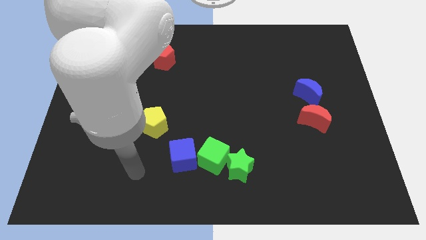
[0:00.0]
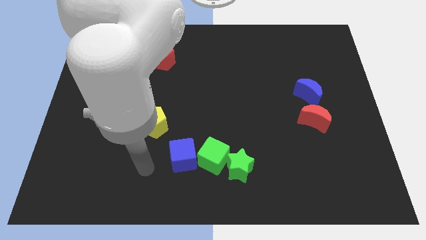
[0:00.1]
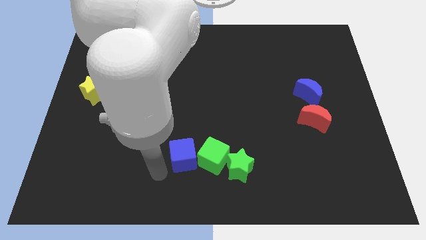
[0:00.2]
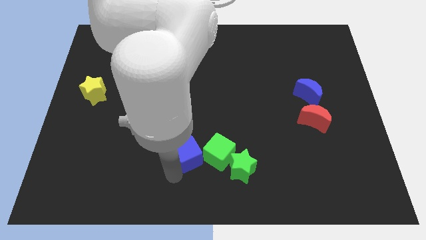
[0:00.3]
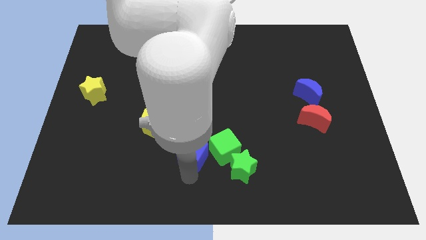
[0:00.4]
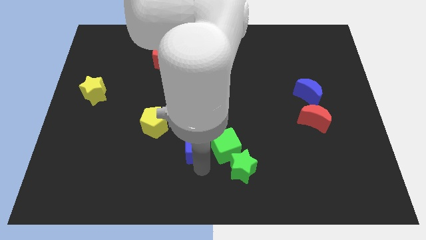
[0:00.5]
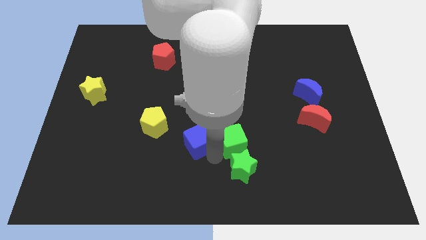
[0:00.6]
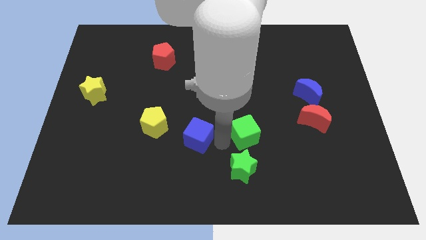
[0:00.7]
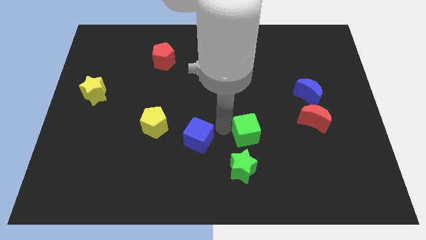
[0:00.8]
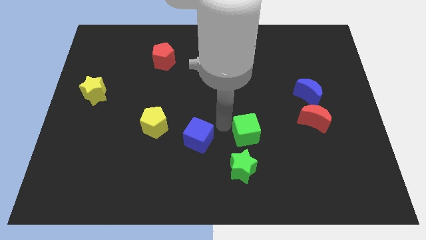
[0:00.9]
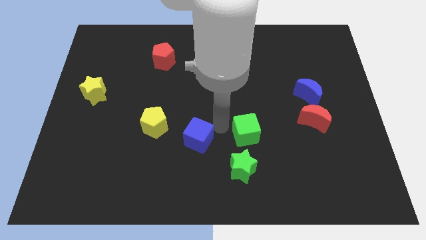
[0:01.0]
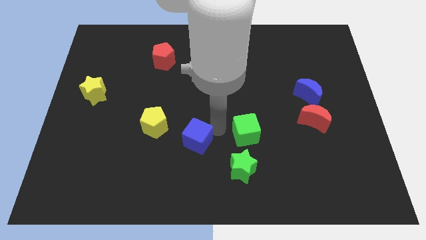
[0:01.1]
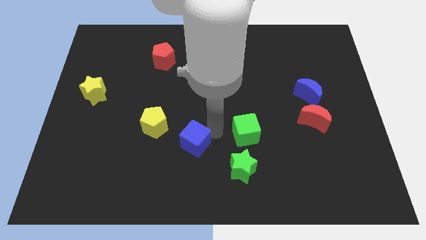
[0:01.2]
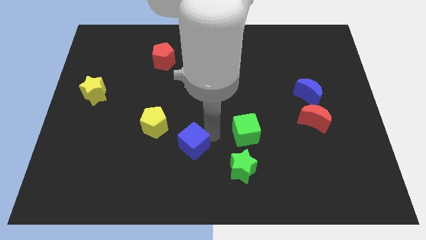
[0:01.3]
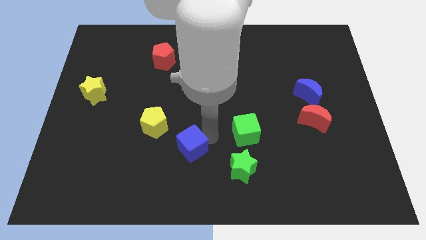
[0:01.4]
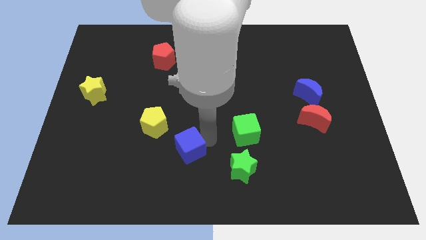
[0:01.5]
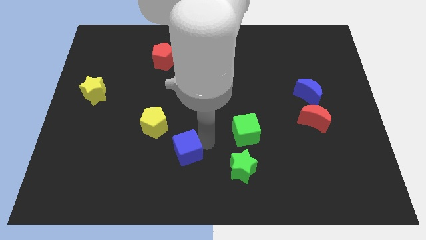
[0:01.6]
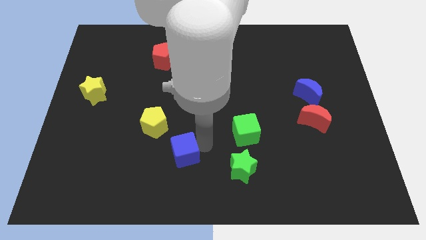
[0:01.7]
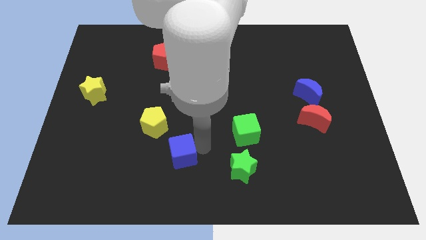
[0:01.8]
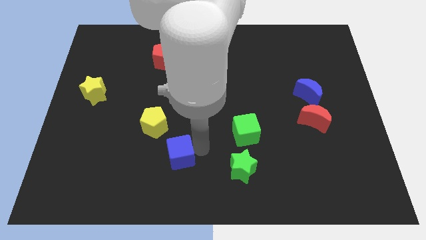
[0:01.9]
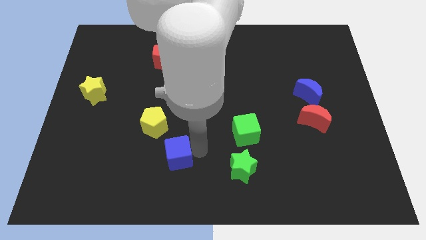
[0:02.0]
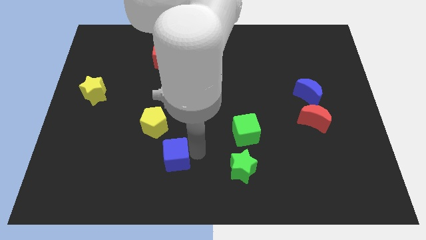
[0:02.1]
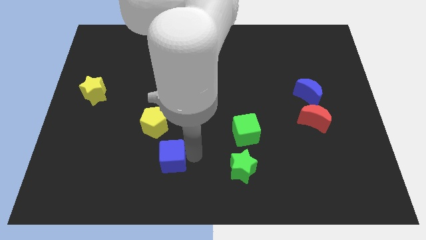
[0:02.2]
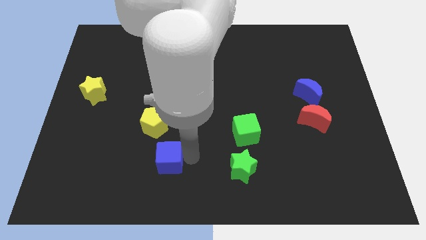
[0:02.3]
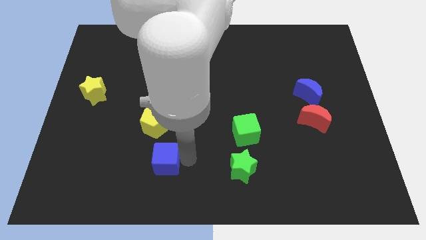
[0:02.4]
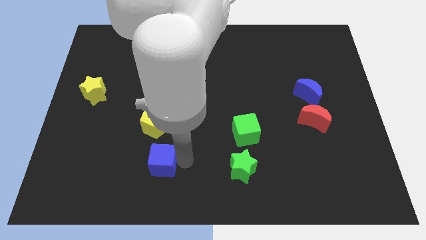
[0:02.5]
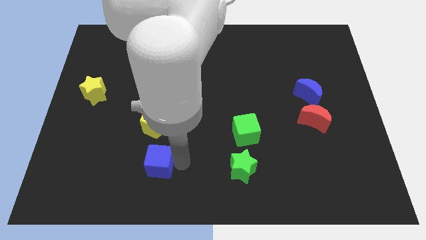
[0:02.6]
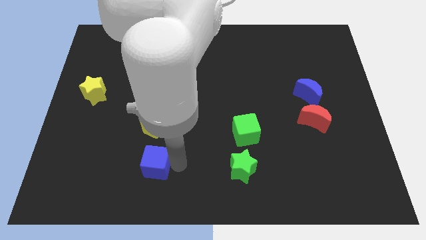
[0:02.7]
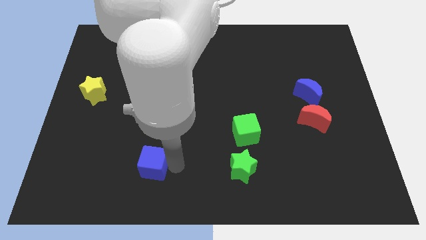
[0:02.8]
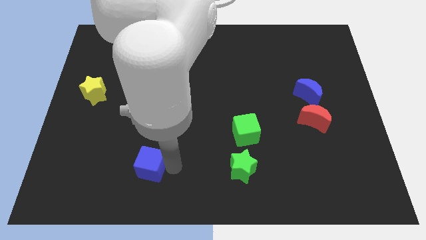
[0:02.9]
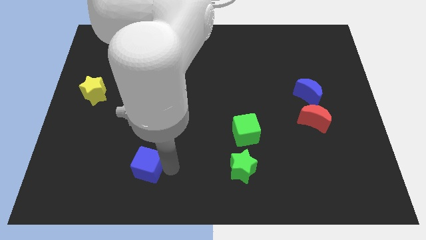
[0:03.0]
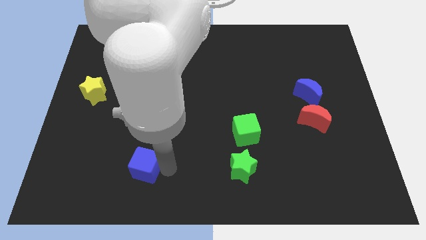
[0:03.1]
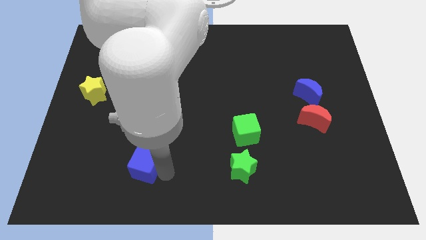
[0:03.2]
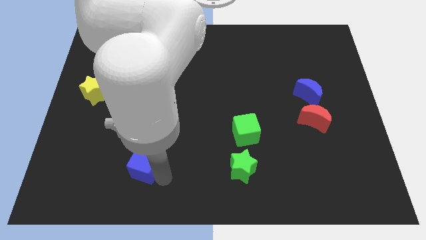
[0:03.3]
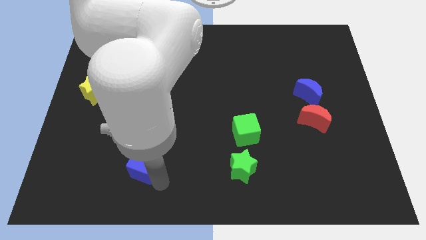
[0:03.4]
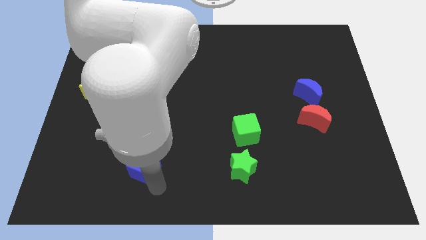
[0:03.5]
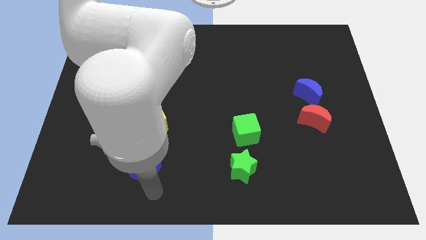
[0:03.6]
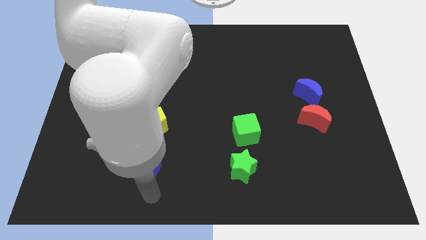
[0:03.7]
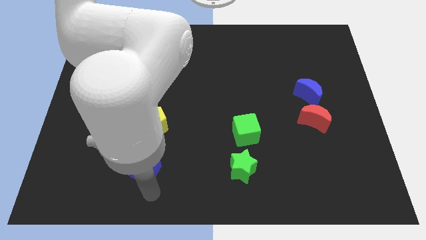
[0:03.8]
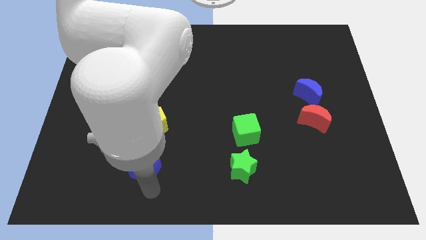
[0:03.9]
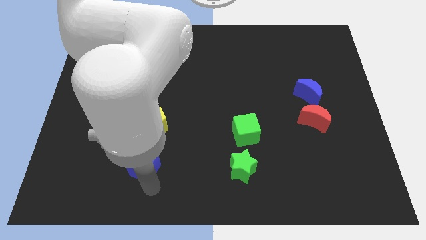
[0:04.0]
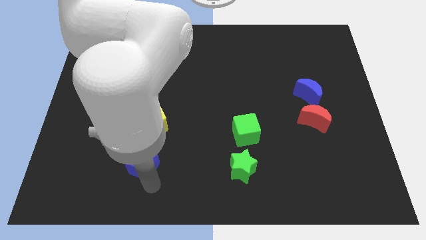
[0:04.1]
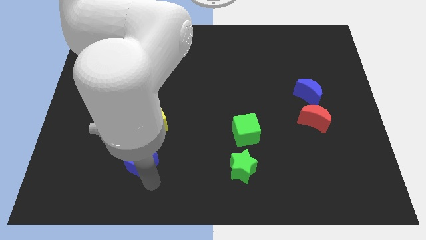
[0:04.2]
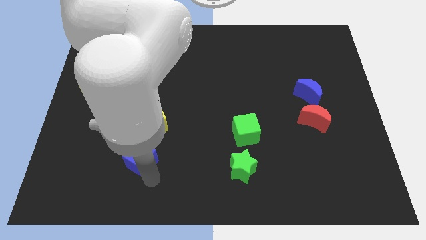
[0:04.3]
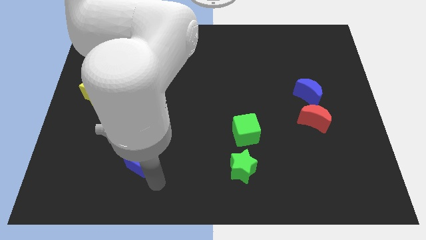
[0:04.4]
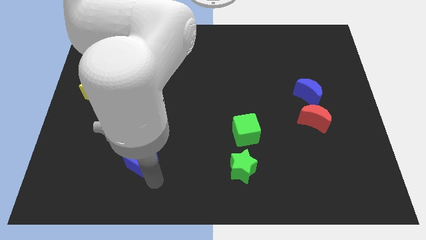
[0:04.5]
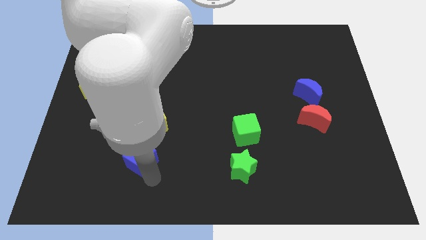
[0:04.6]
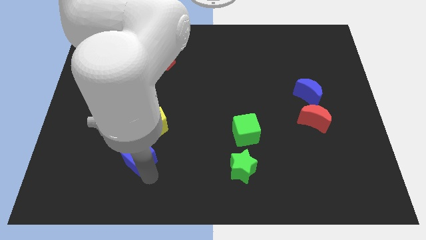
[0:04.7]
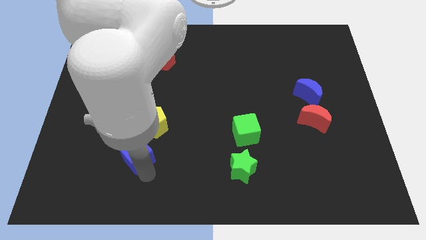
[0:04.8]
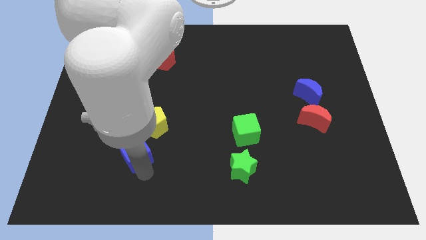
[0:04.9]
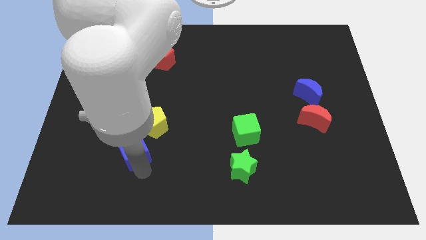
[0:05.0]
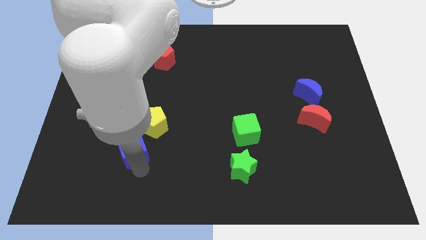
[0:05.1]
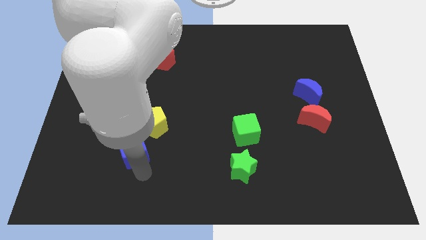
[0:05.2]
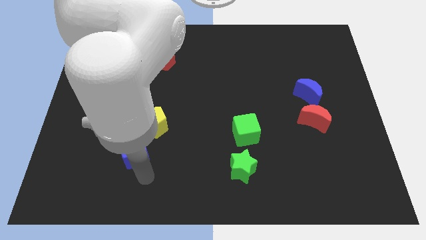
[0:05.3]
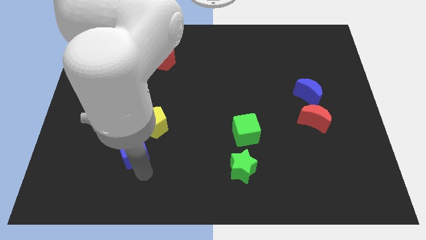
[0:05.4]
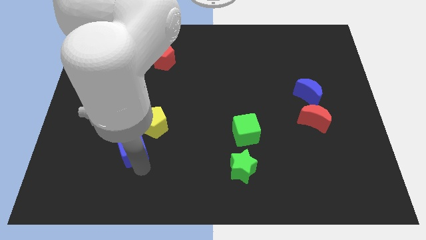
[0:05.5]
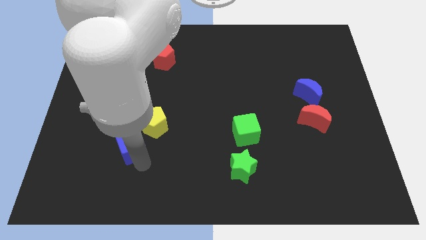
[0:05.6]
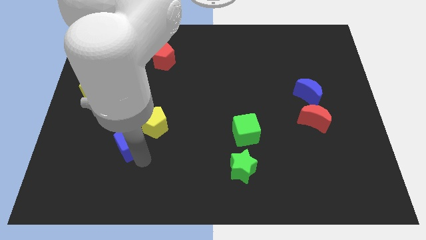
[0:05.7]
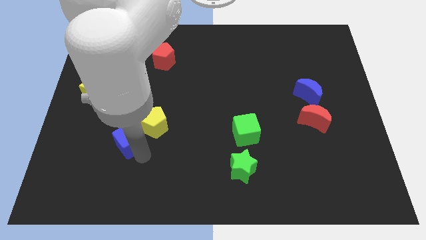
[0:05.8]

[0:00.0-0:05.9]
move the blue cube left of the yellow pentagon

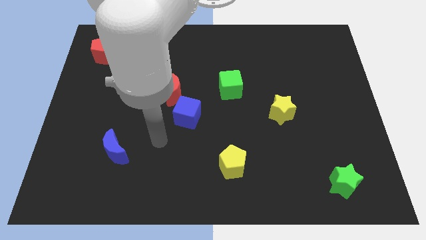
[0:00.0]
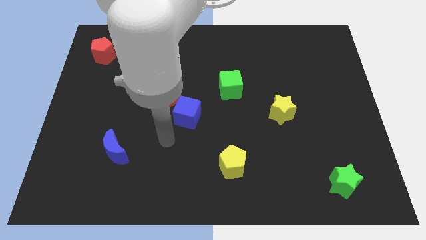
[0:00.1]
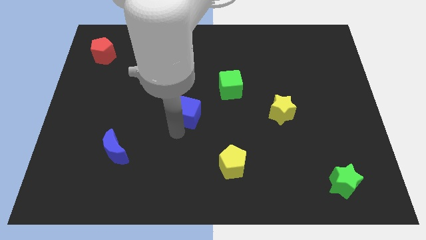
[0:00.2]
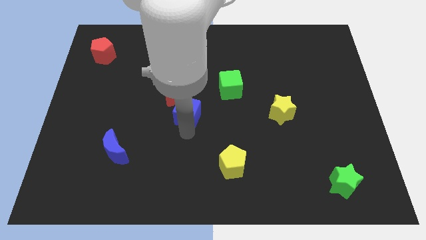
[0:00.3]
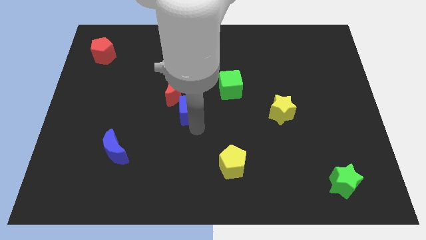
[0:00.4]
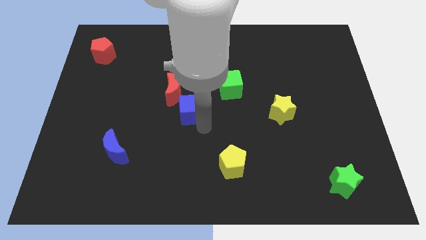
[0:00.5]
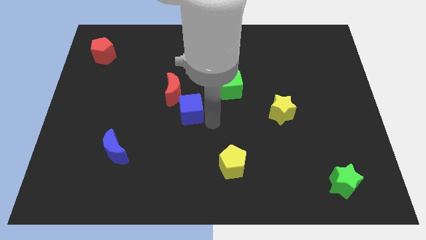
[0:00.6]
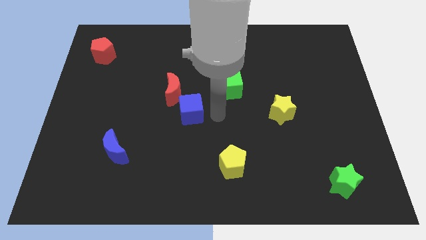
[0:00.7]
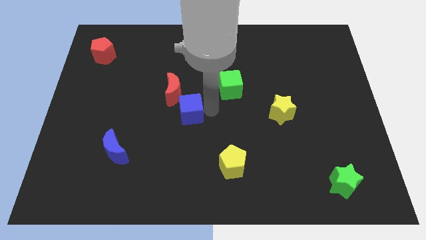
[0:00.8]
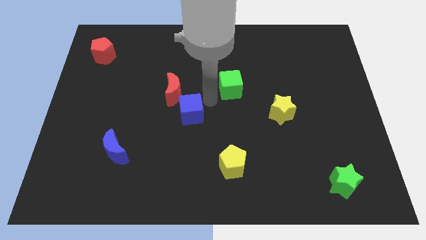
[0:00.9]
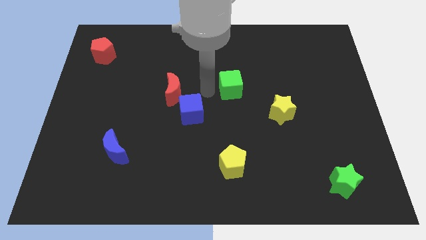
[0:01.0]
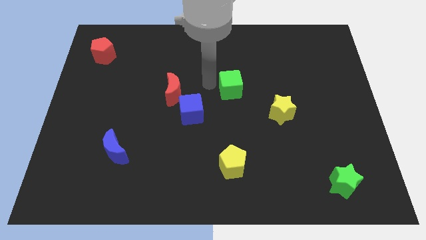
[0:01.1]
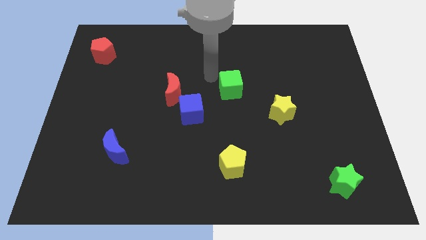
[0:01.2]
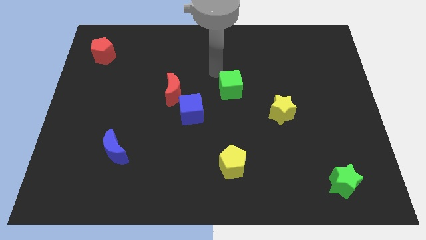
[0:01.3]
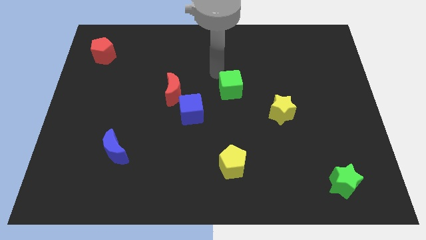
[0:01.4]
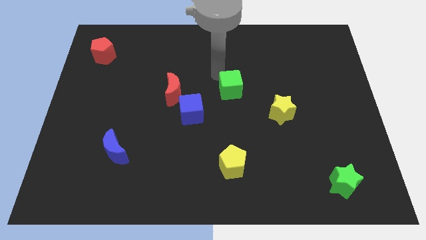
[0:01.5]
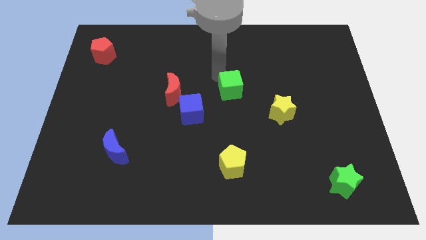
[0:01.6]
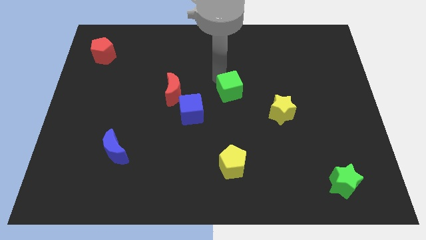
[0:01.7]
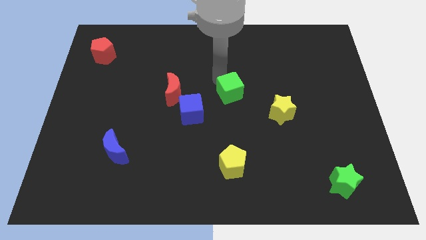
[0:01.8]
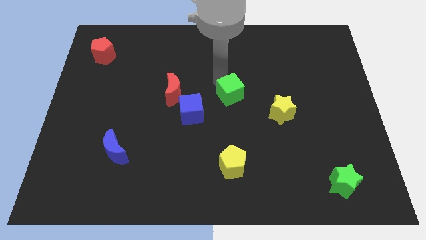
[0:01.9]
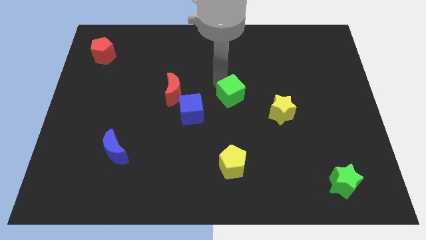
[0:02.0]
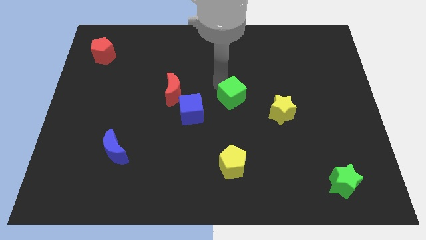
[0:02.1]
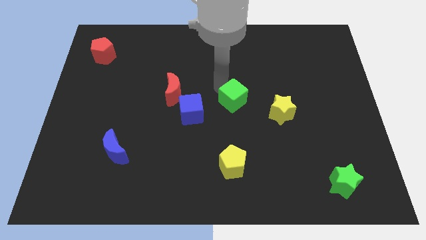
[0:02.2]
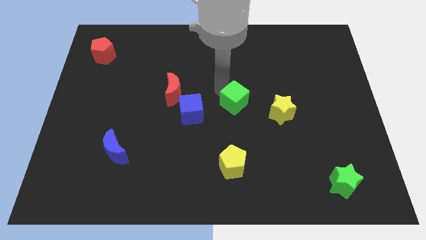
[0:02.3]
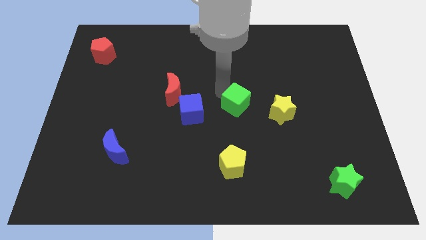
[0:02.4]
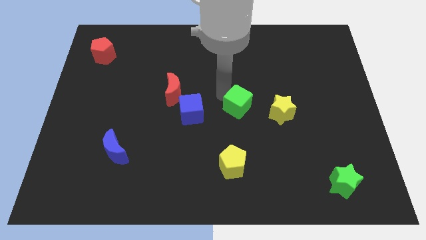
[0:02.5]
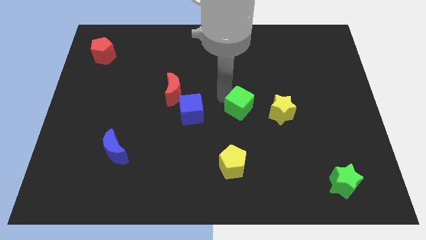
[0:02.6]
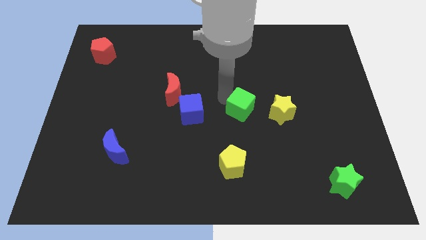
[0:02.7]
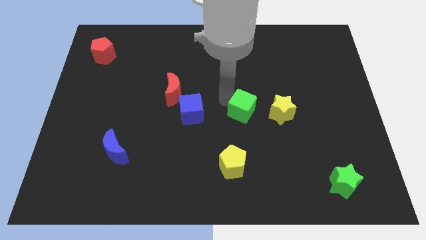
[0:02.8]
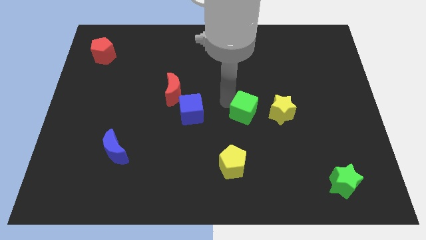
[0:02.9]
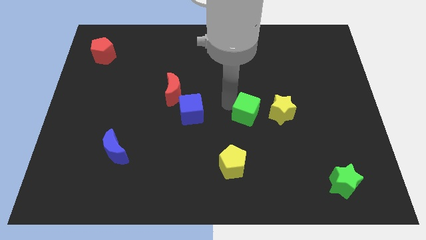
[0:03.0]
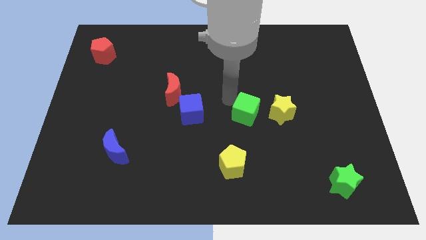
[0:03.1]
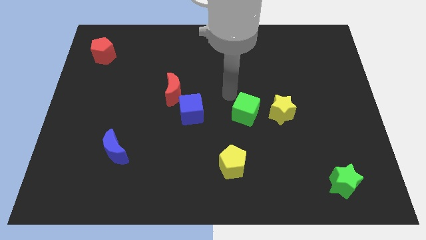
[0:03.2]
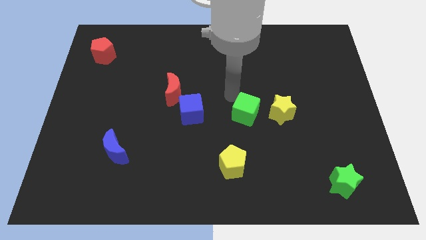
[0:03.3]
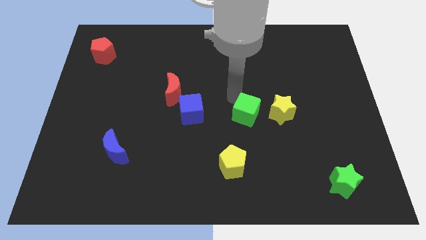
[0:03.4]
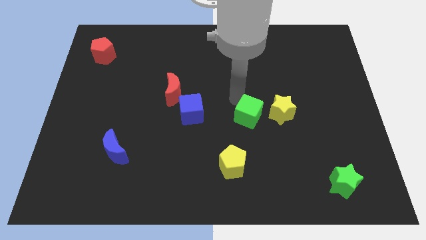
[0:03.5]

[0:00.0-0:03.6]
push the green cube to the bottom left side of the yellow star
